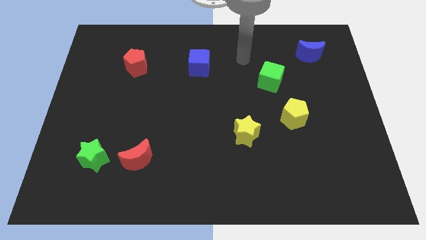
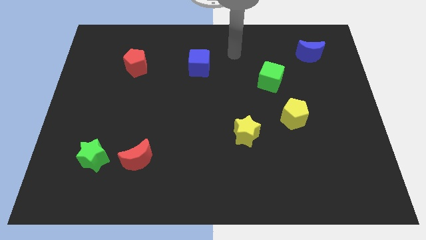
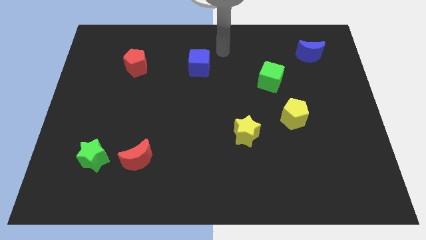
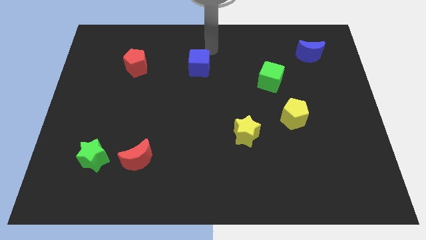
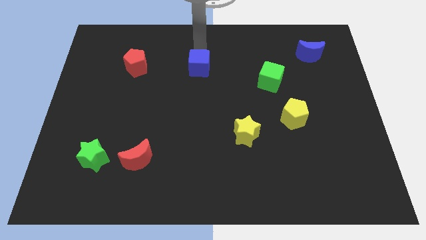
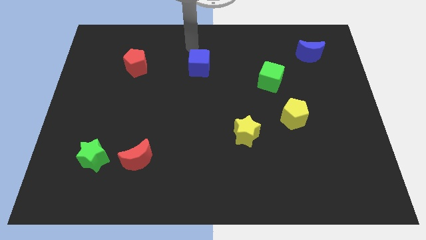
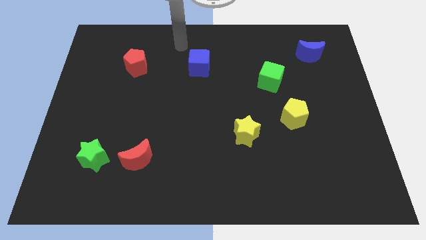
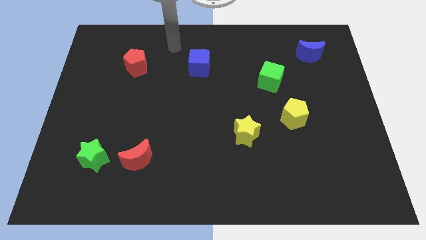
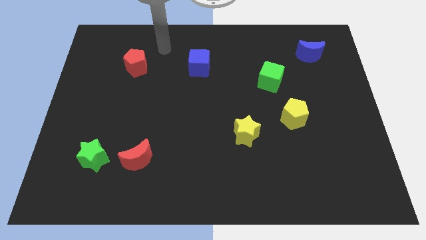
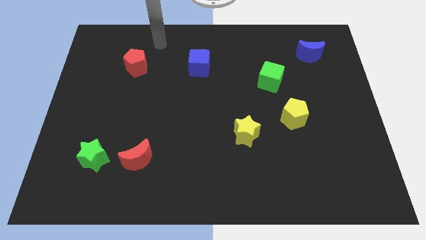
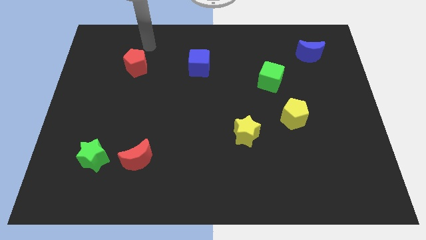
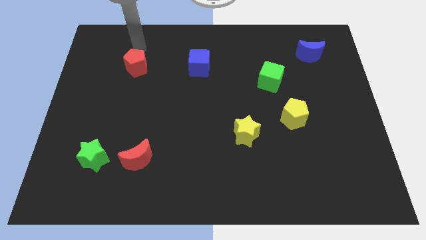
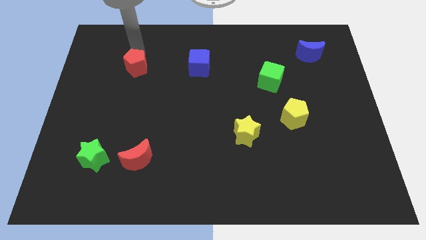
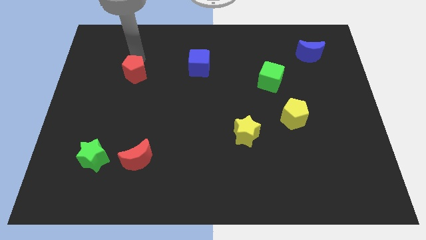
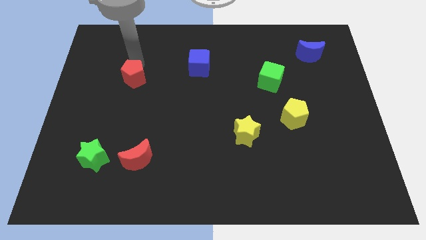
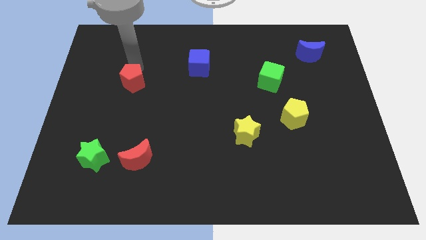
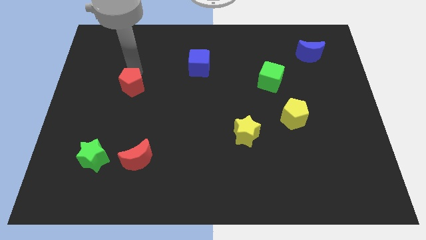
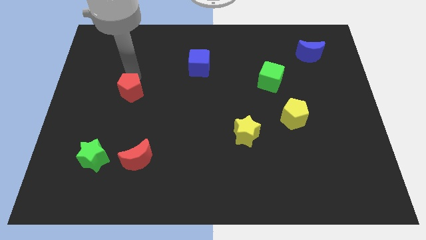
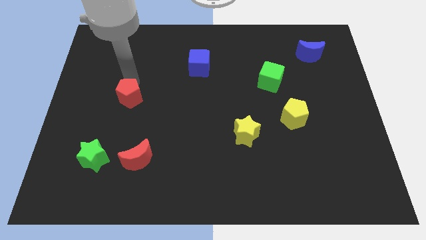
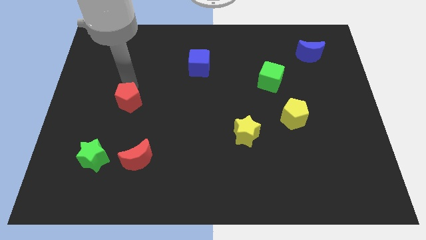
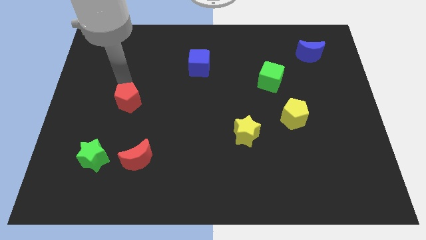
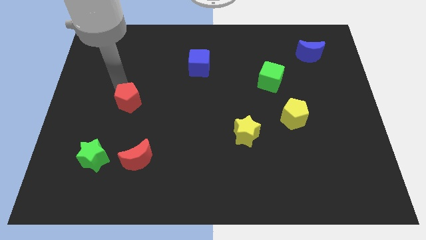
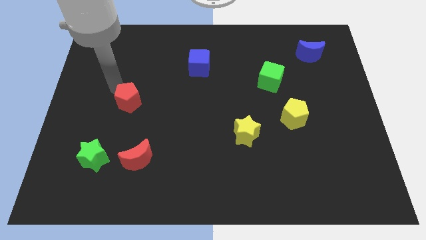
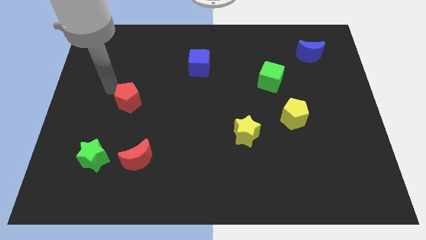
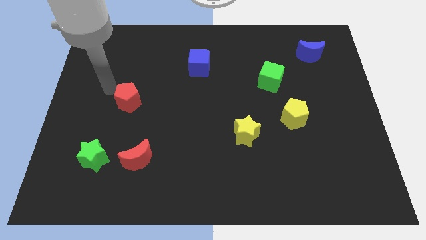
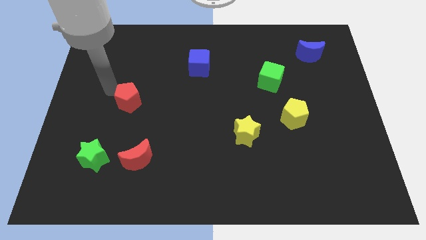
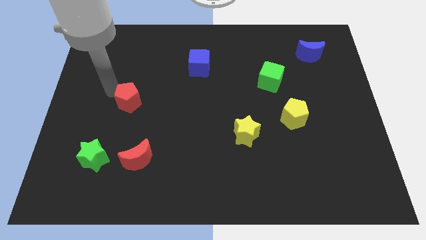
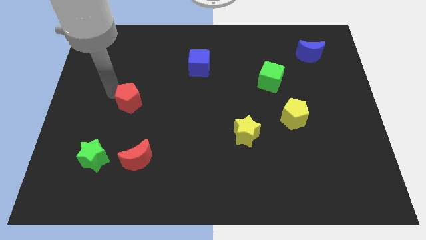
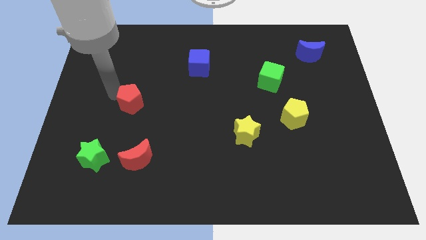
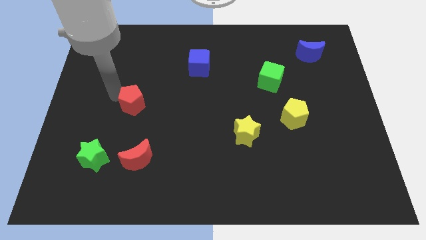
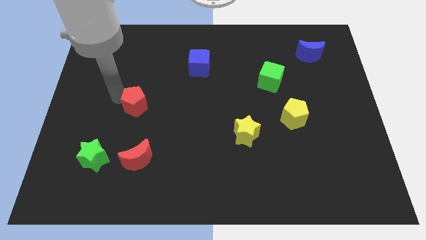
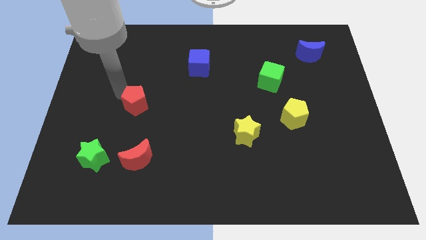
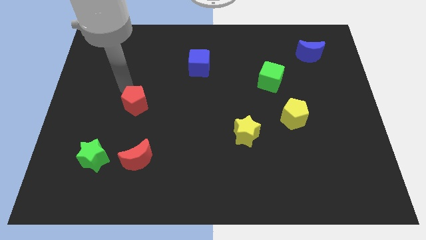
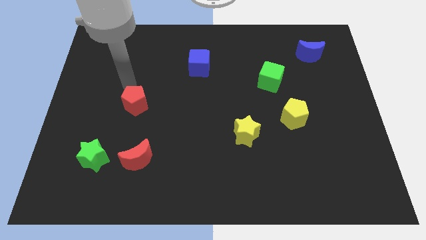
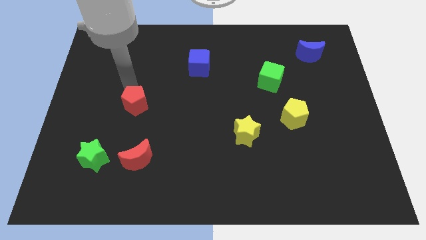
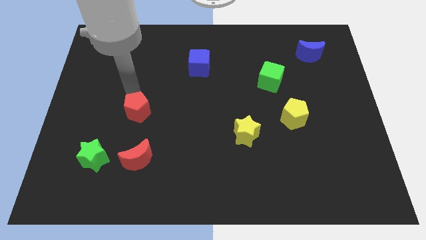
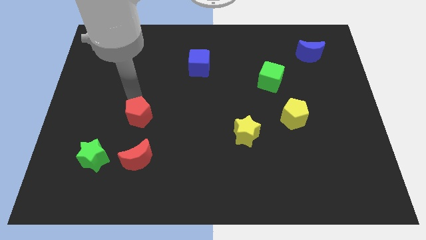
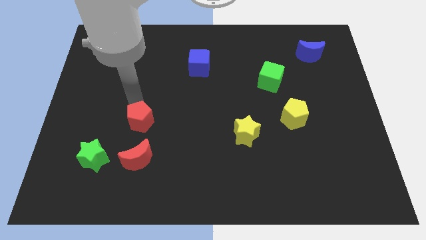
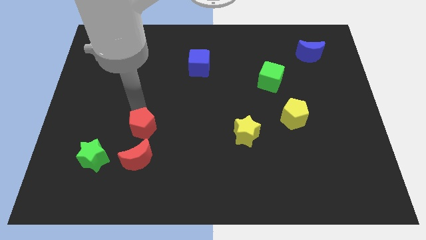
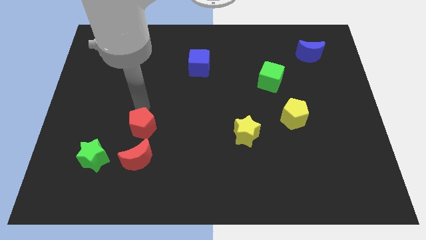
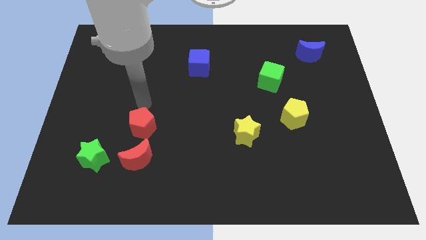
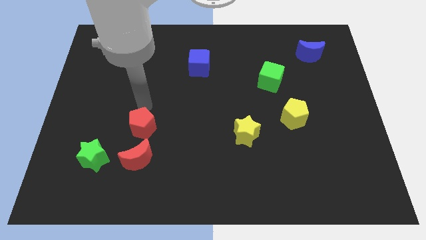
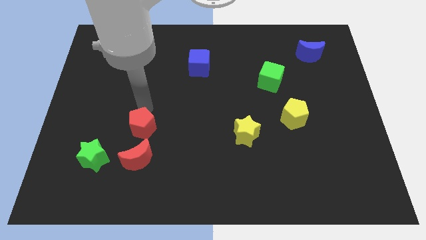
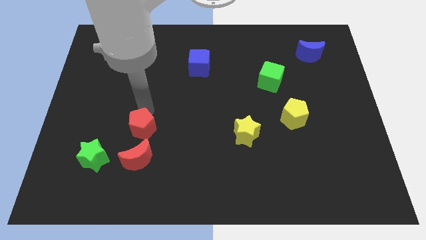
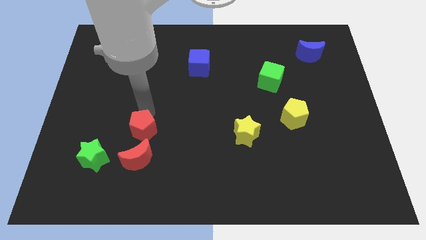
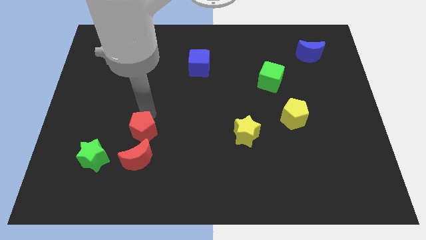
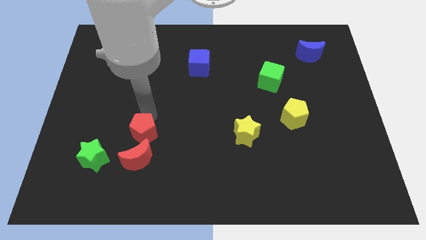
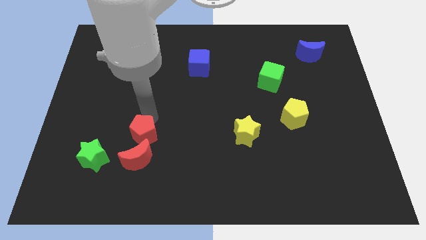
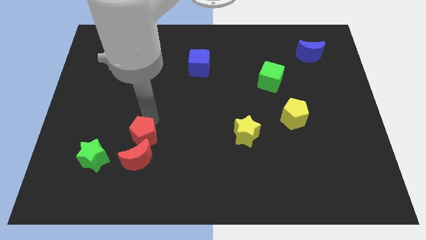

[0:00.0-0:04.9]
slide the red pentagon to the red moon

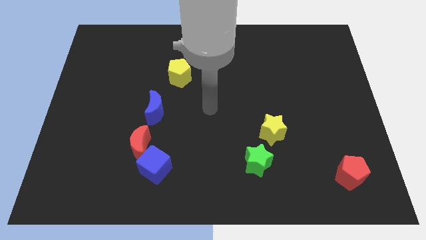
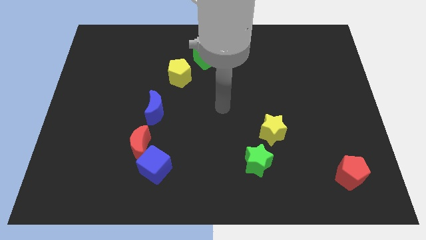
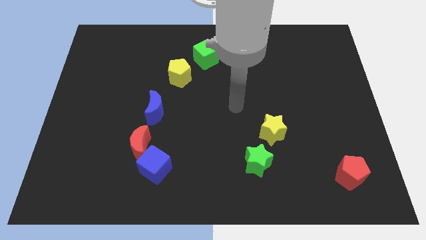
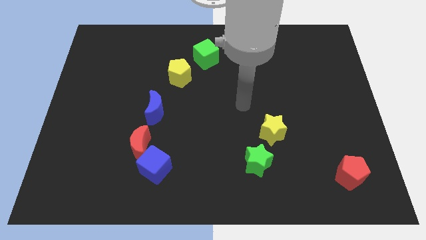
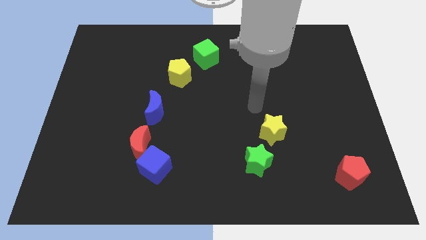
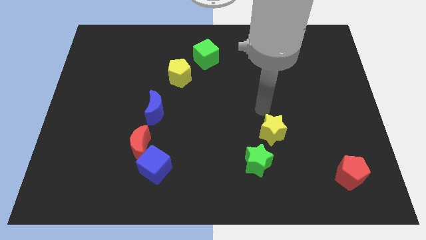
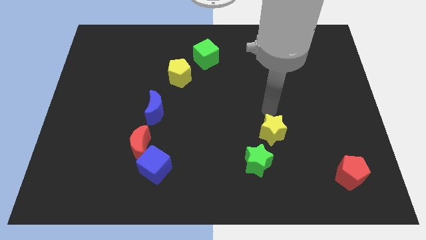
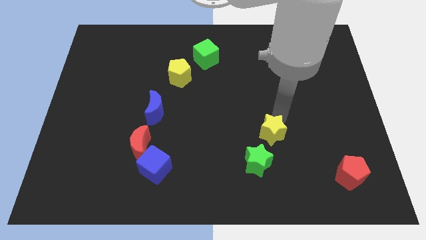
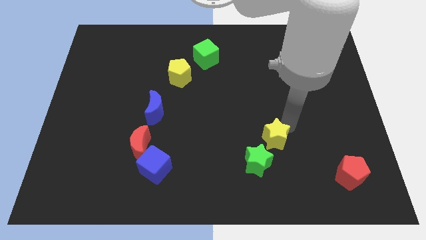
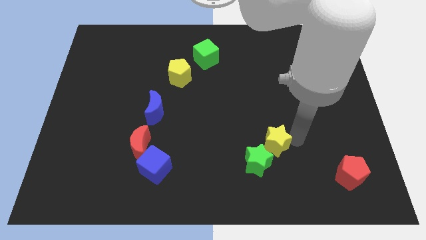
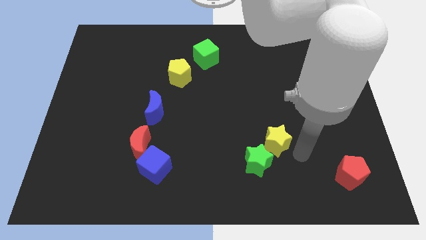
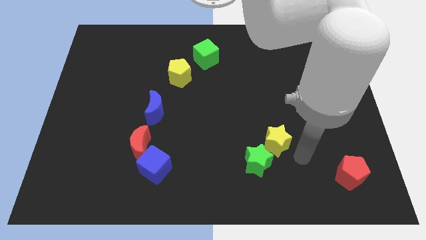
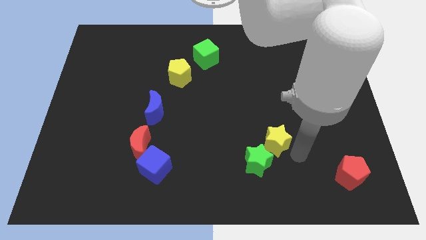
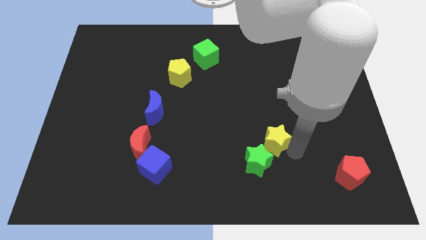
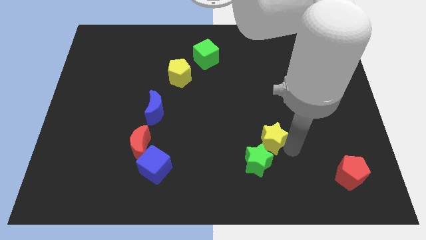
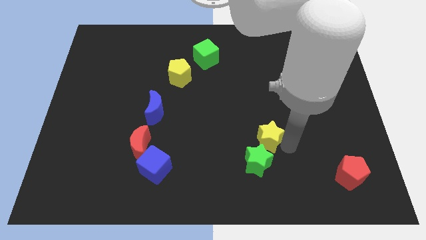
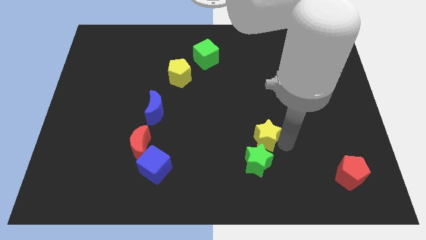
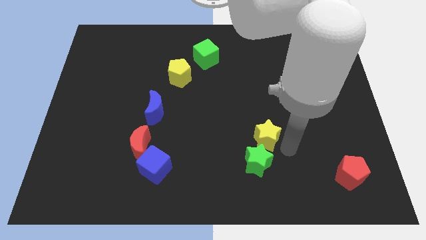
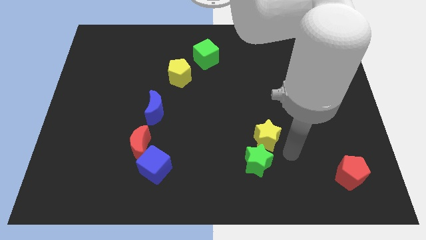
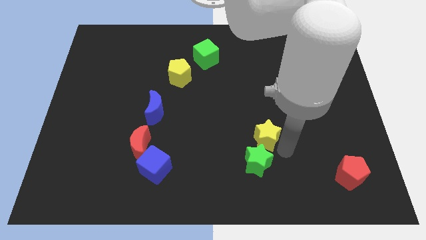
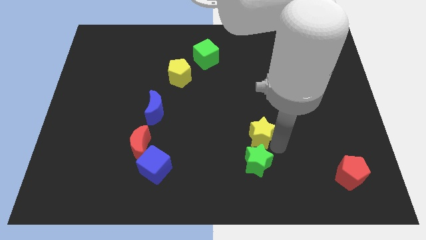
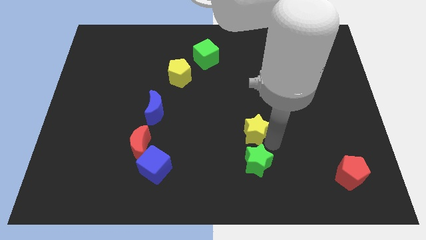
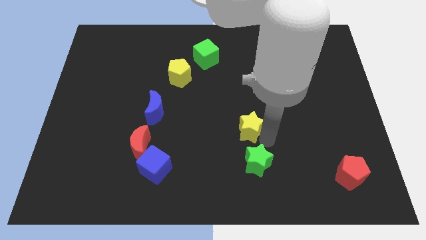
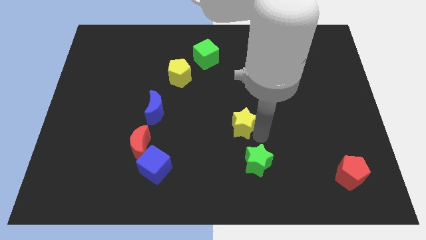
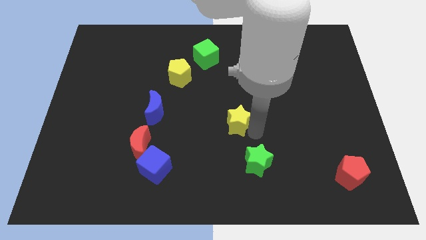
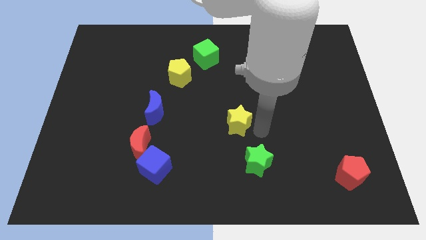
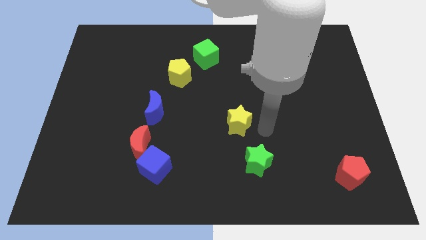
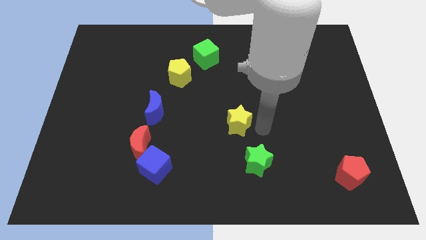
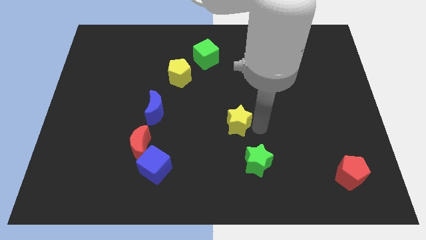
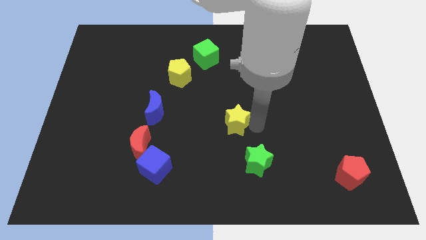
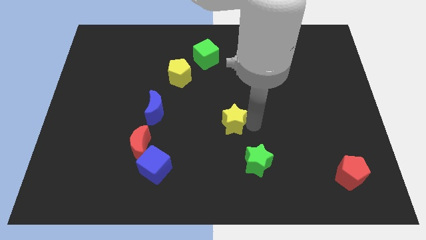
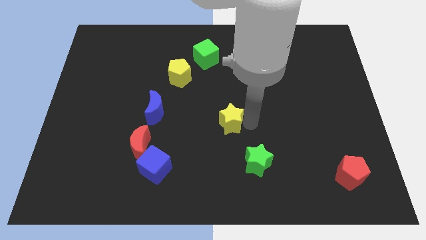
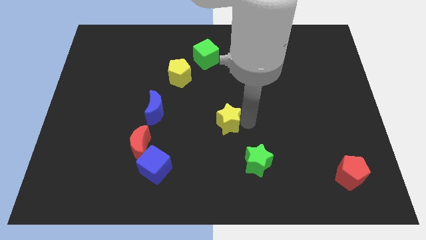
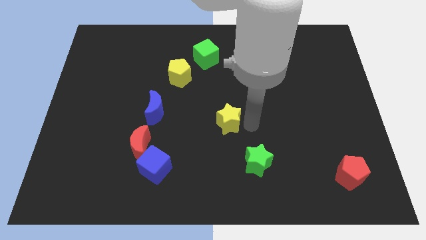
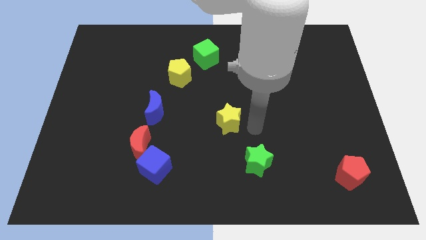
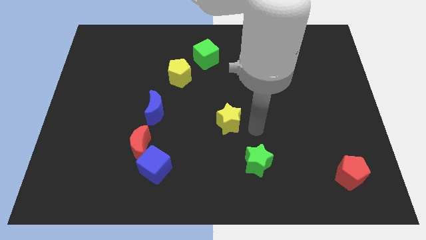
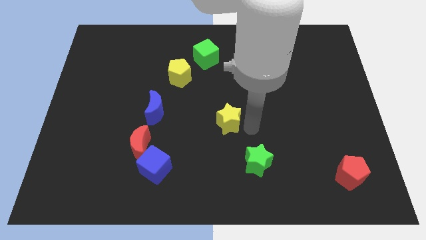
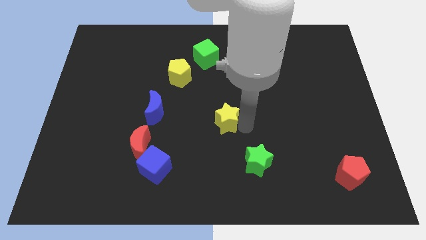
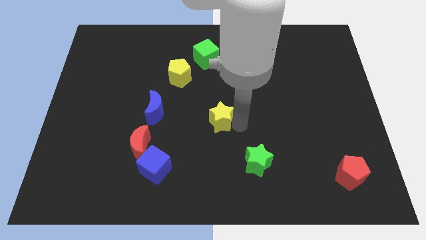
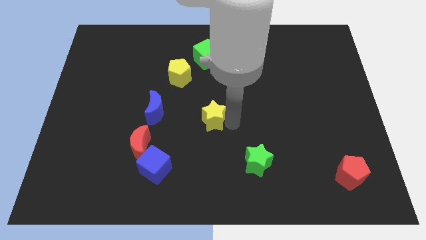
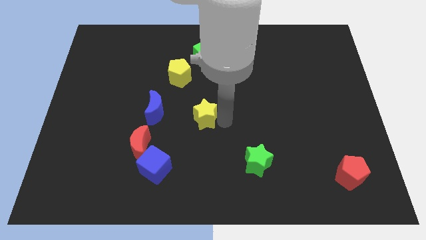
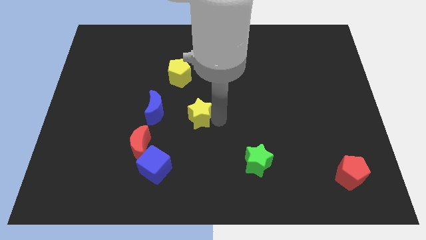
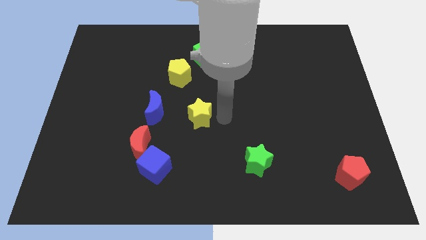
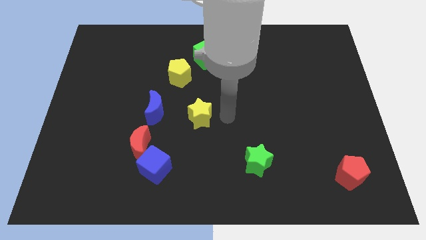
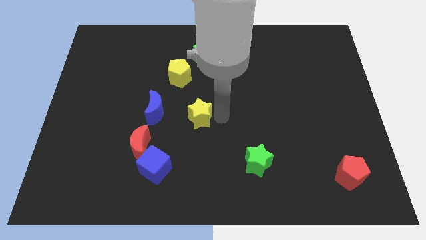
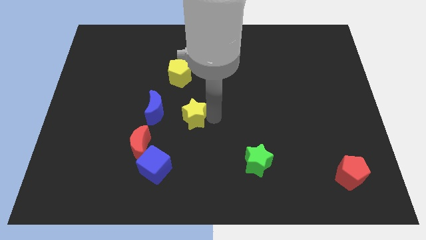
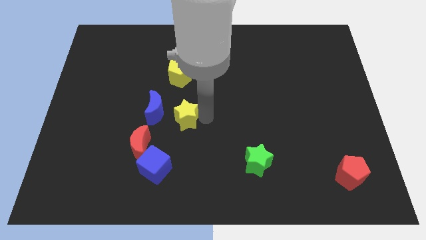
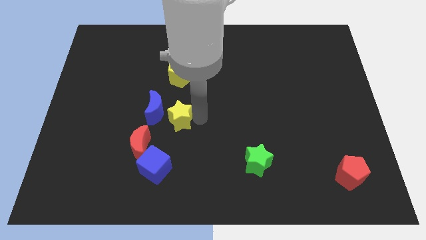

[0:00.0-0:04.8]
move the yellow star next to the blue moon
